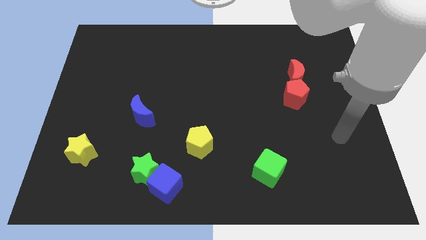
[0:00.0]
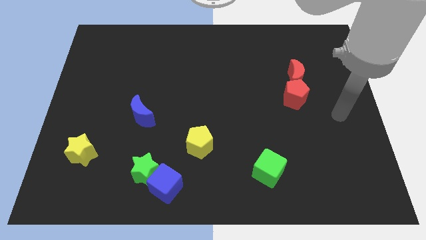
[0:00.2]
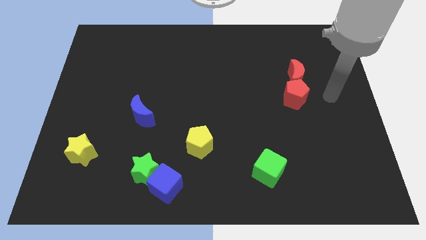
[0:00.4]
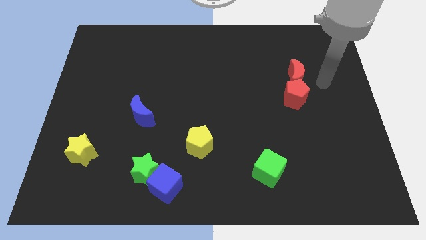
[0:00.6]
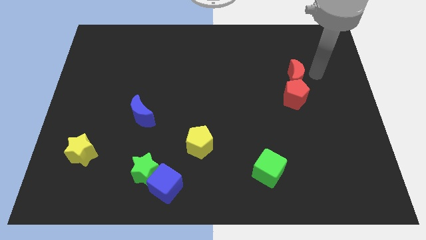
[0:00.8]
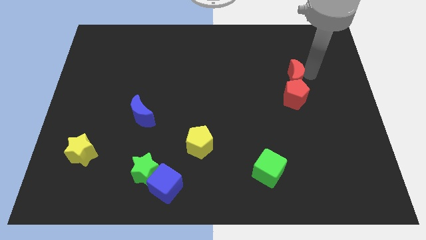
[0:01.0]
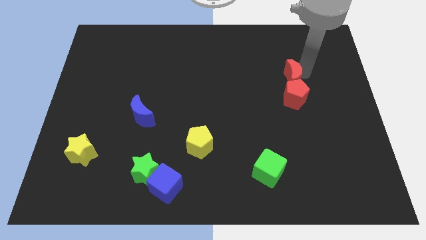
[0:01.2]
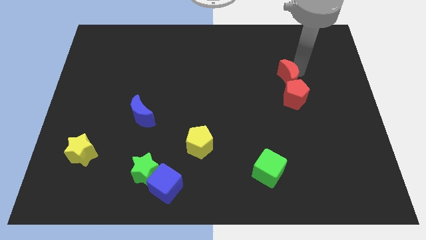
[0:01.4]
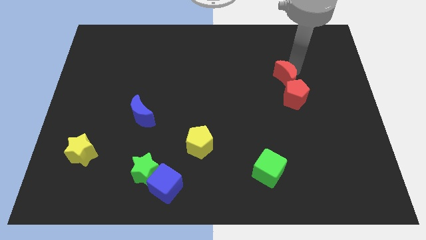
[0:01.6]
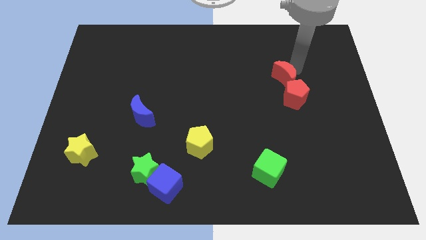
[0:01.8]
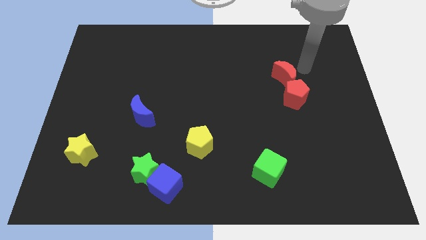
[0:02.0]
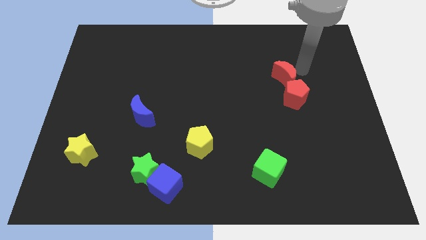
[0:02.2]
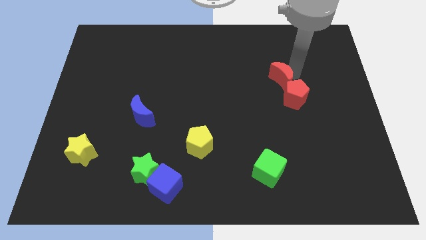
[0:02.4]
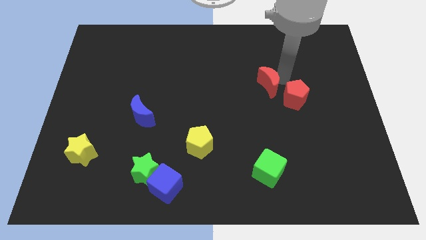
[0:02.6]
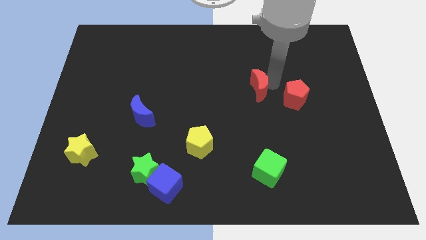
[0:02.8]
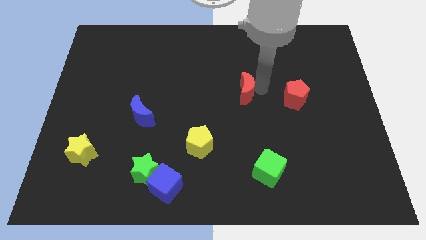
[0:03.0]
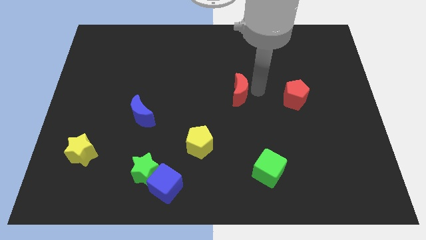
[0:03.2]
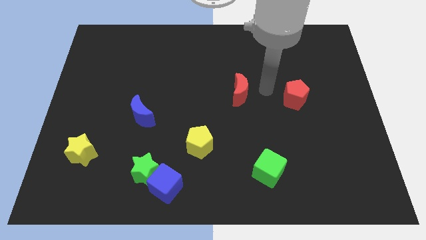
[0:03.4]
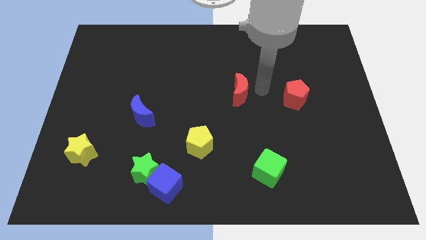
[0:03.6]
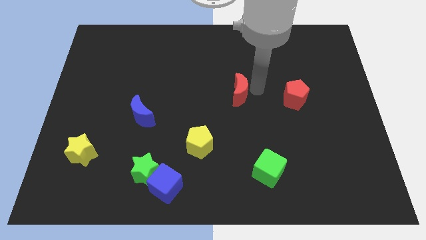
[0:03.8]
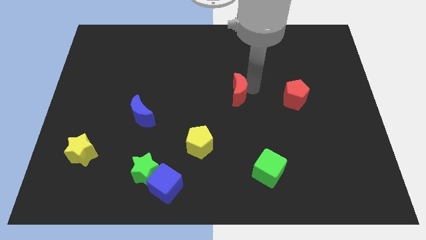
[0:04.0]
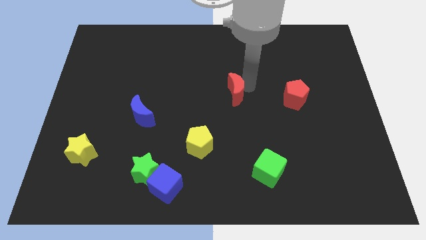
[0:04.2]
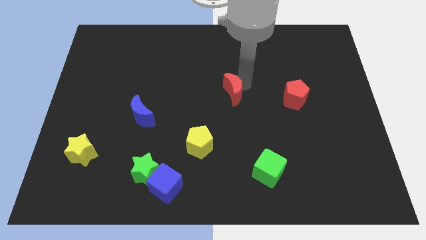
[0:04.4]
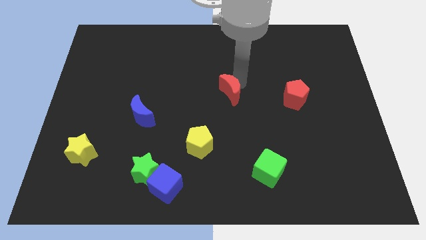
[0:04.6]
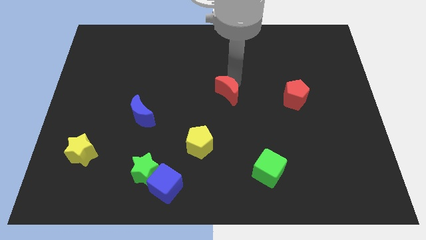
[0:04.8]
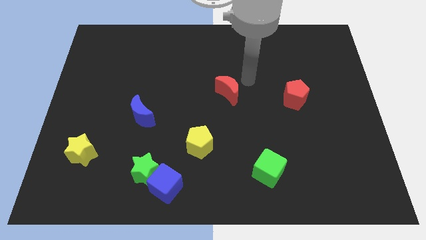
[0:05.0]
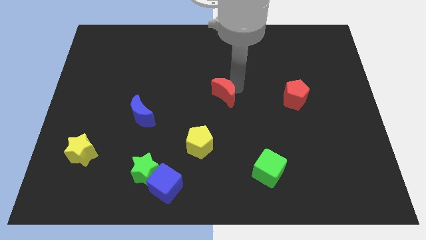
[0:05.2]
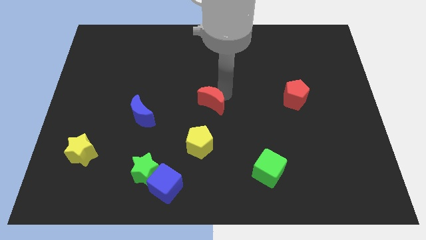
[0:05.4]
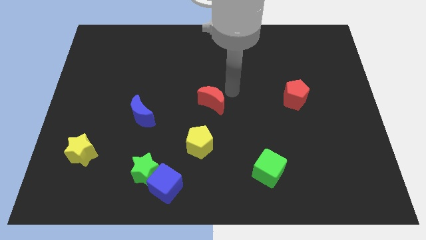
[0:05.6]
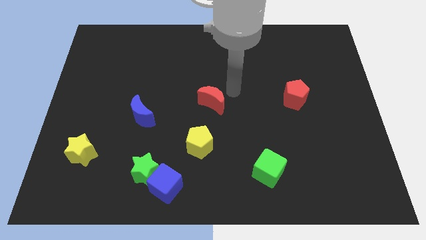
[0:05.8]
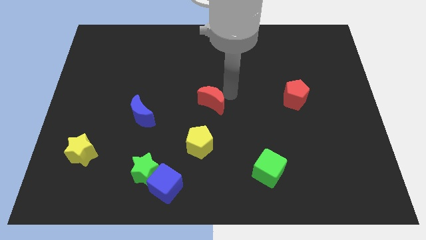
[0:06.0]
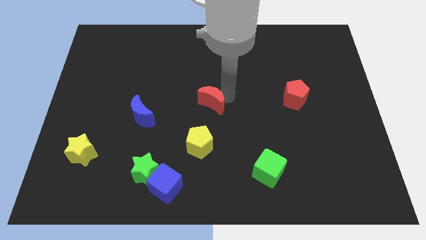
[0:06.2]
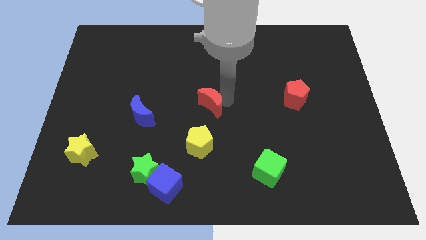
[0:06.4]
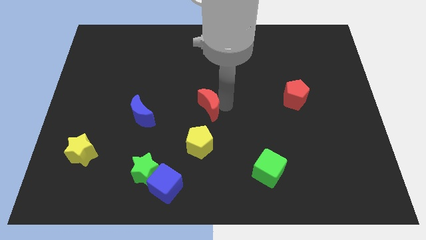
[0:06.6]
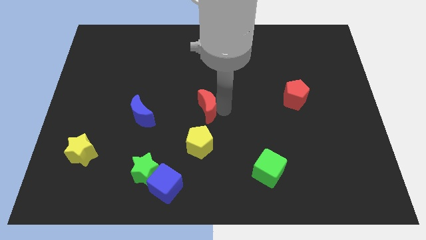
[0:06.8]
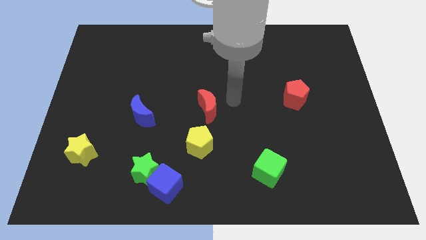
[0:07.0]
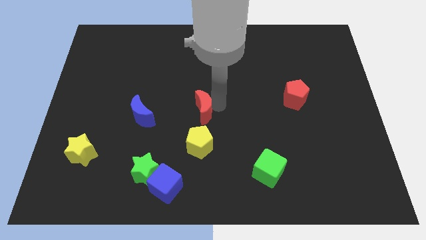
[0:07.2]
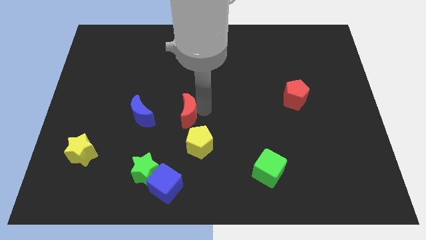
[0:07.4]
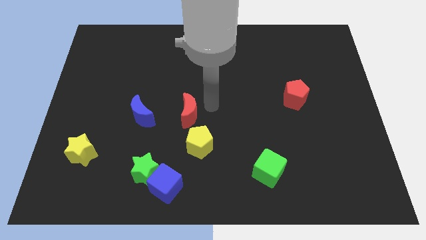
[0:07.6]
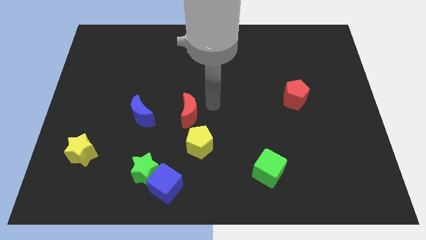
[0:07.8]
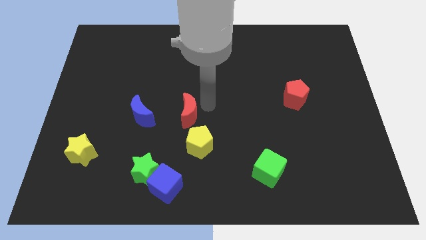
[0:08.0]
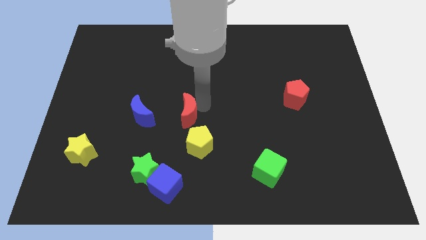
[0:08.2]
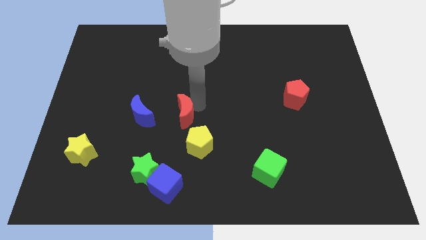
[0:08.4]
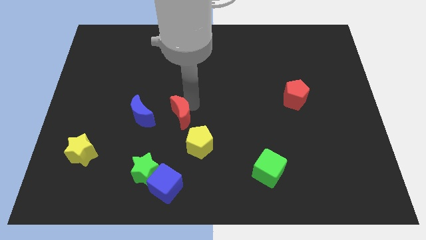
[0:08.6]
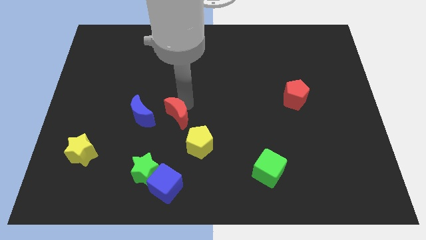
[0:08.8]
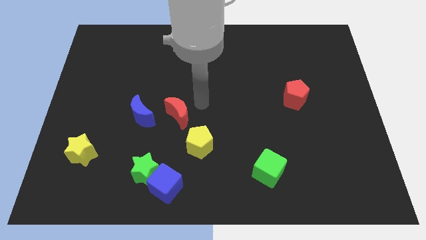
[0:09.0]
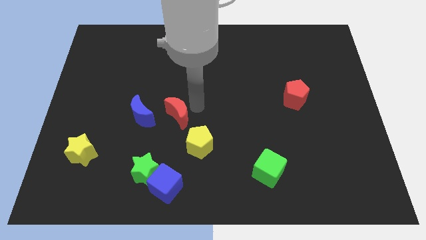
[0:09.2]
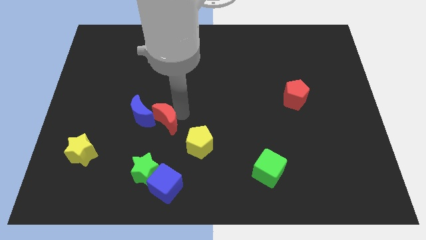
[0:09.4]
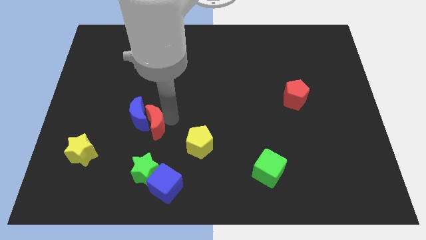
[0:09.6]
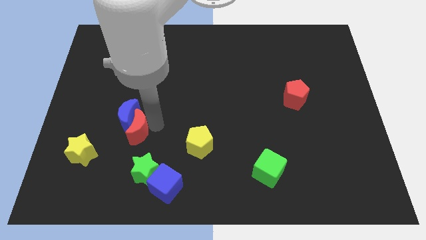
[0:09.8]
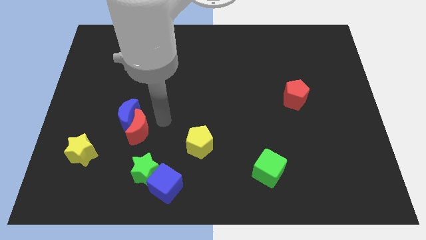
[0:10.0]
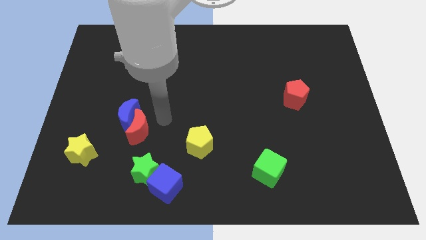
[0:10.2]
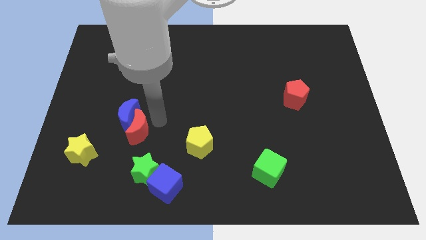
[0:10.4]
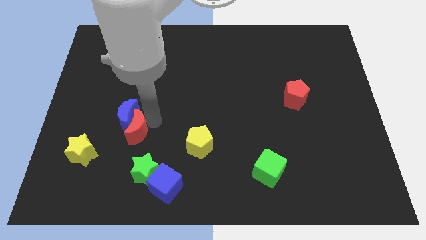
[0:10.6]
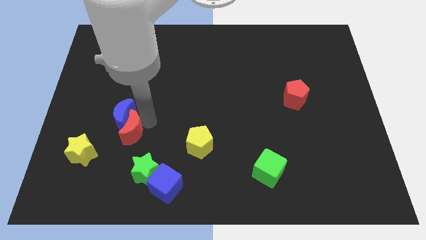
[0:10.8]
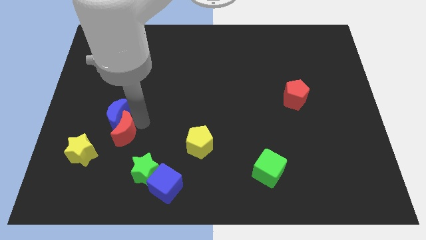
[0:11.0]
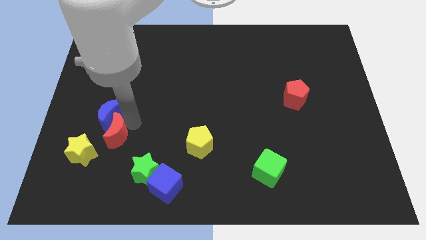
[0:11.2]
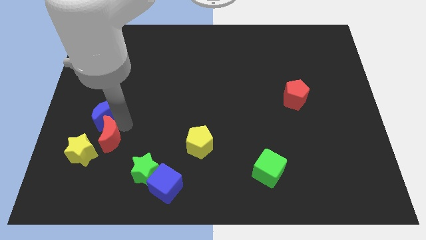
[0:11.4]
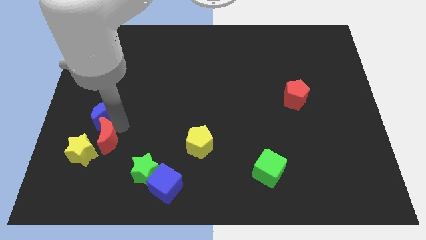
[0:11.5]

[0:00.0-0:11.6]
slide the red moon next to the yellow star

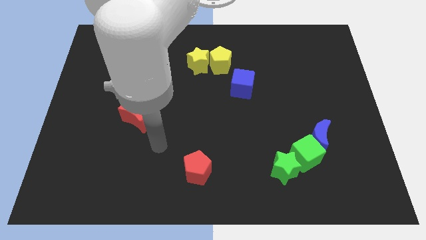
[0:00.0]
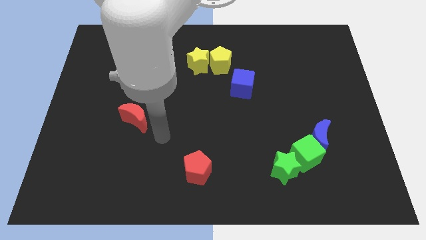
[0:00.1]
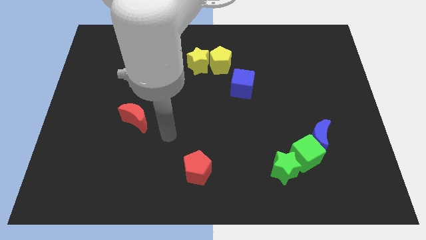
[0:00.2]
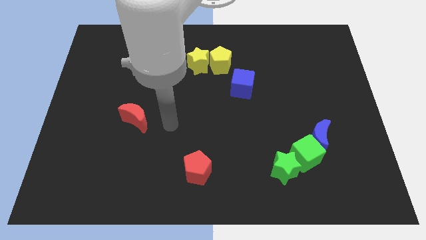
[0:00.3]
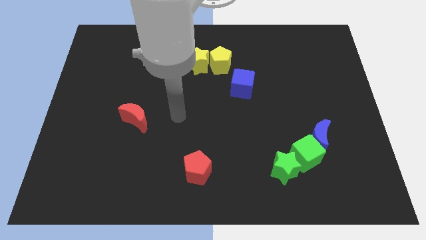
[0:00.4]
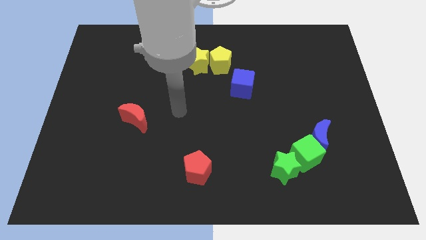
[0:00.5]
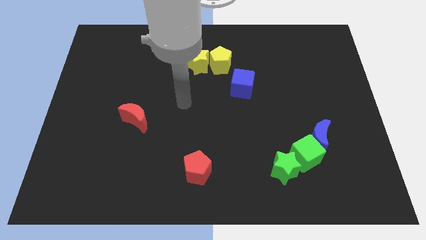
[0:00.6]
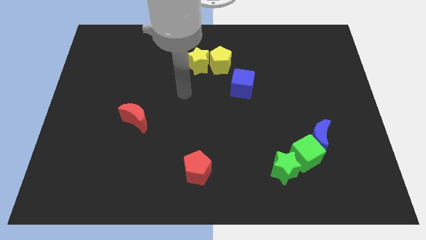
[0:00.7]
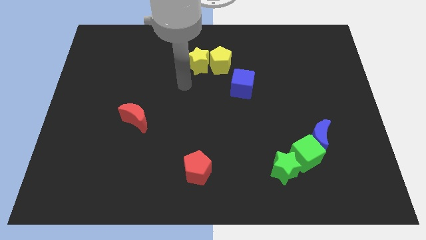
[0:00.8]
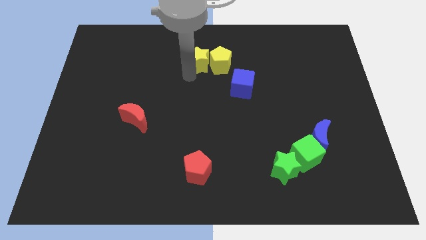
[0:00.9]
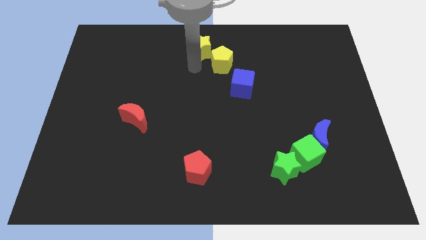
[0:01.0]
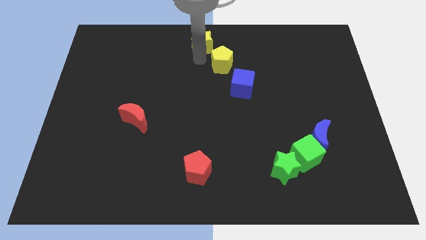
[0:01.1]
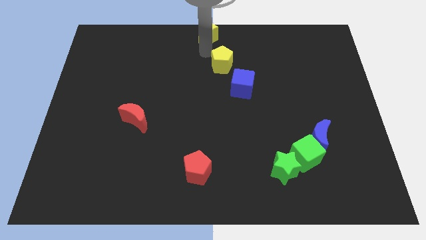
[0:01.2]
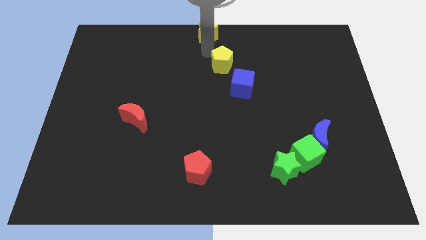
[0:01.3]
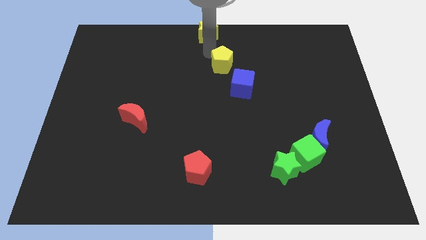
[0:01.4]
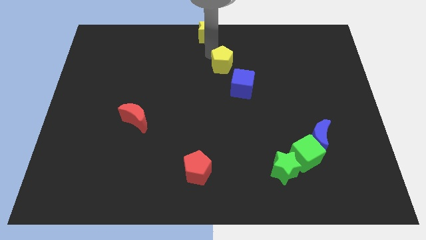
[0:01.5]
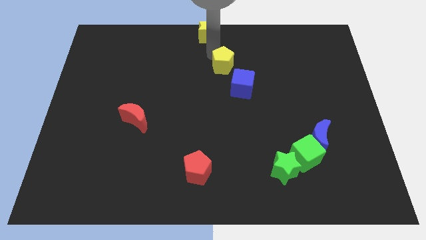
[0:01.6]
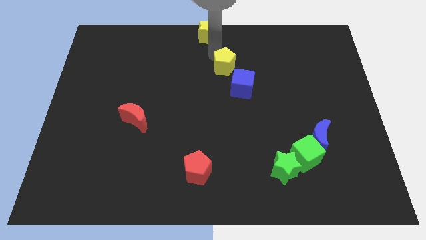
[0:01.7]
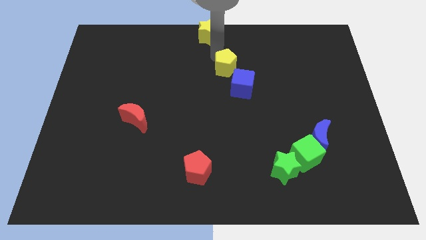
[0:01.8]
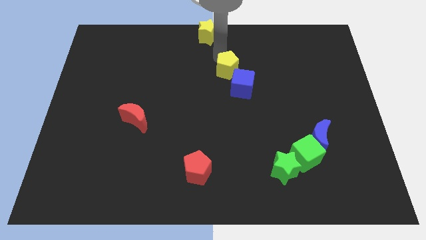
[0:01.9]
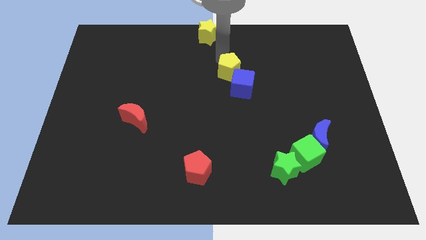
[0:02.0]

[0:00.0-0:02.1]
slide the yellow pentagon close to the blue cube

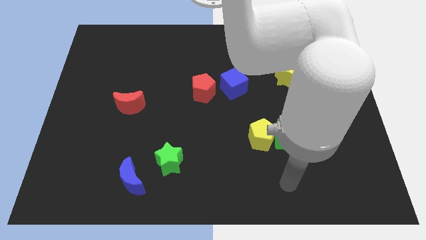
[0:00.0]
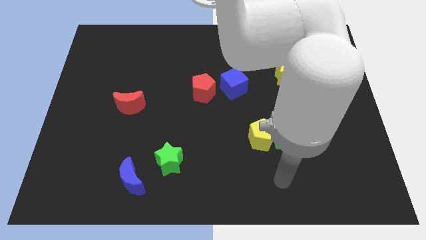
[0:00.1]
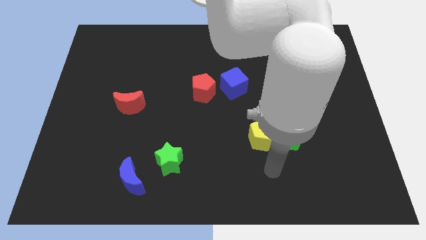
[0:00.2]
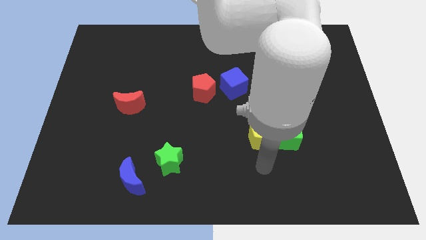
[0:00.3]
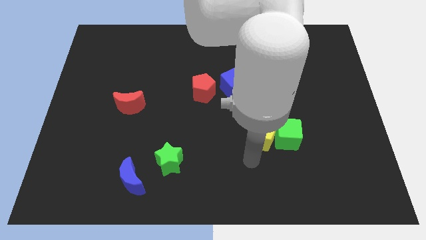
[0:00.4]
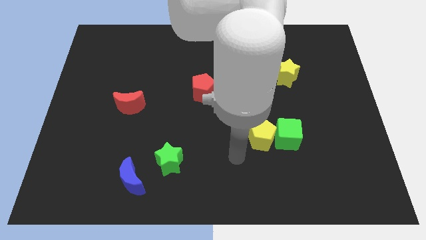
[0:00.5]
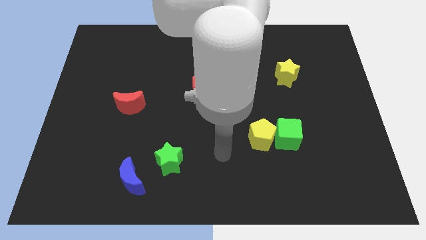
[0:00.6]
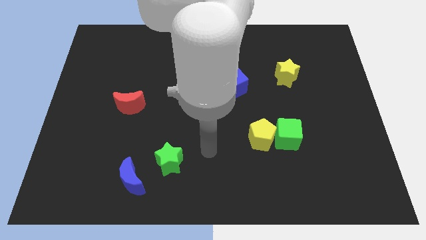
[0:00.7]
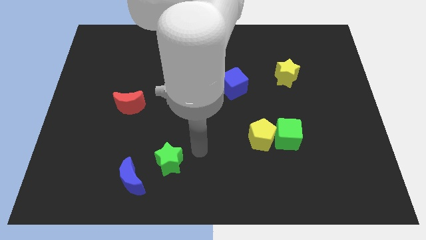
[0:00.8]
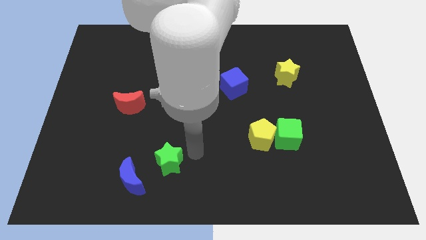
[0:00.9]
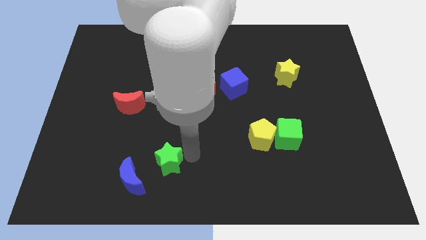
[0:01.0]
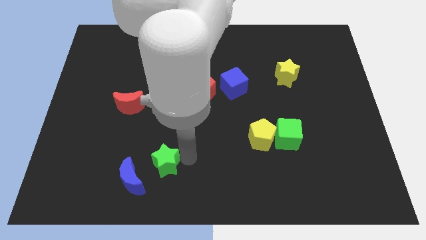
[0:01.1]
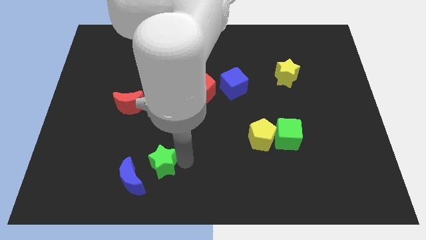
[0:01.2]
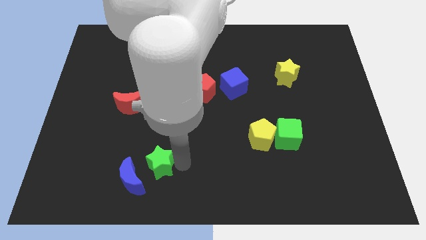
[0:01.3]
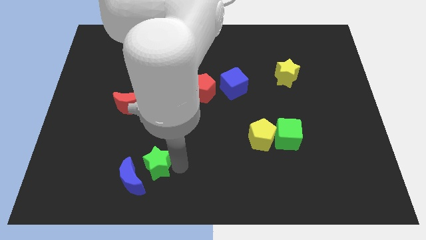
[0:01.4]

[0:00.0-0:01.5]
slide the green star towards the blue moon
